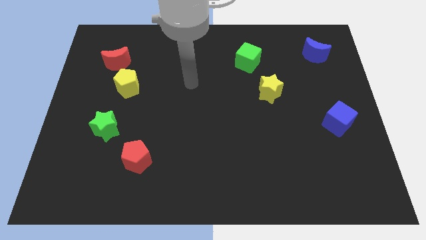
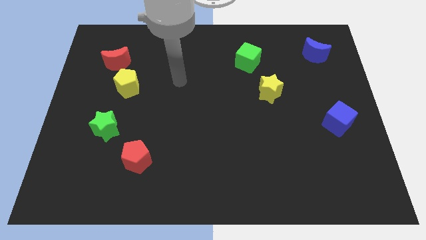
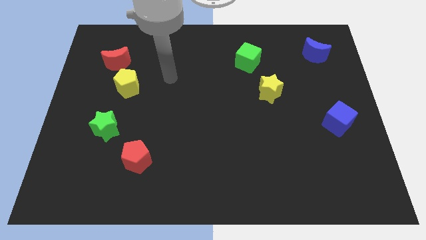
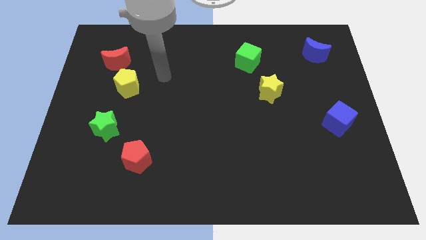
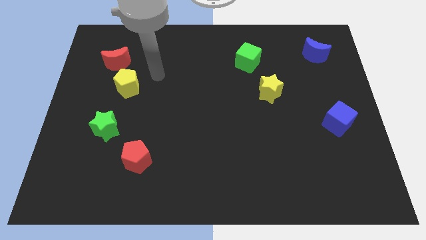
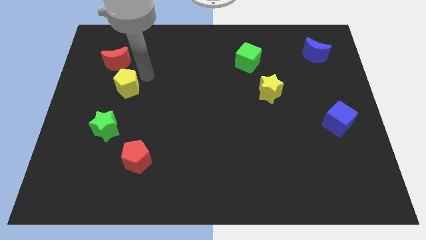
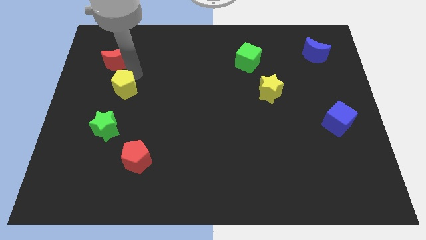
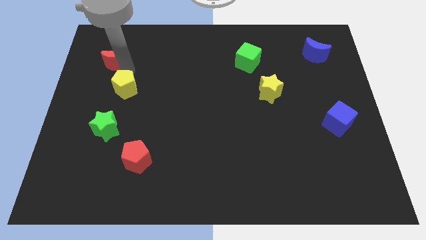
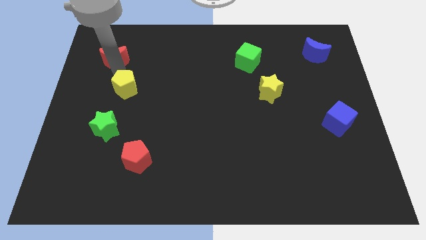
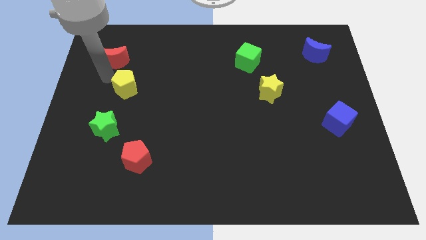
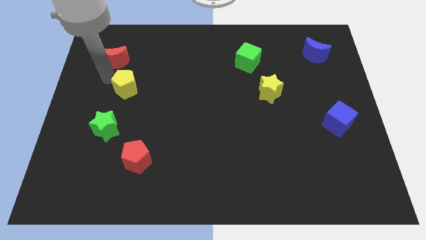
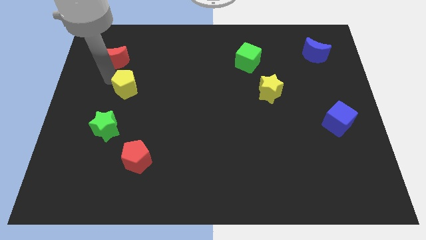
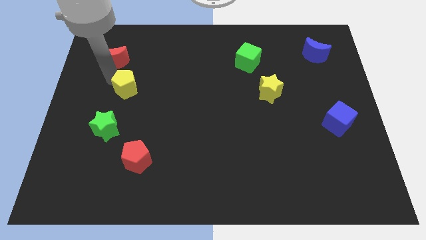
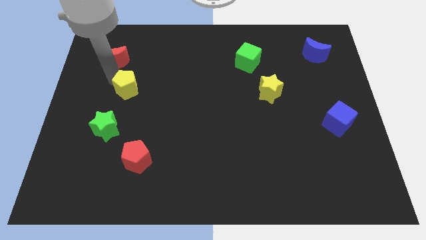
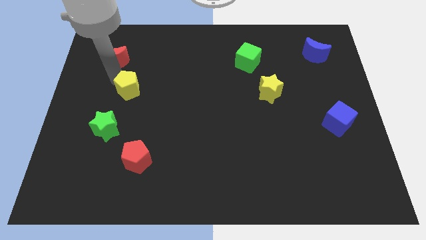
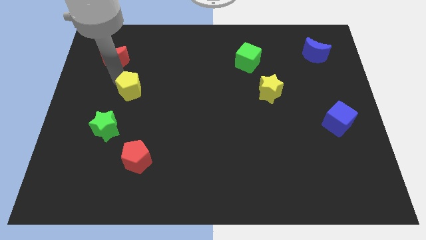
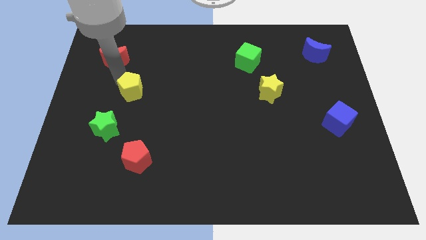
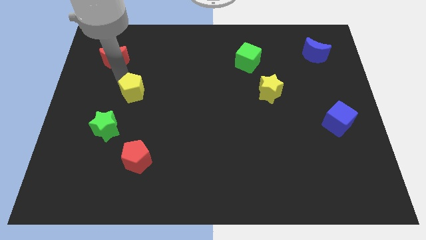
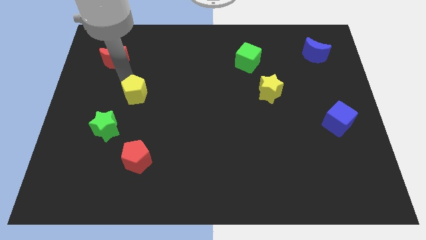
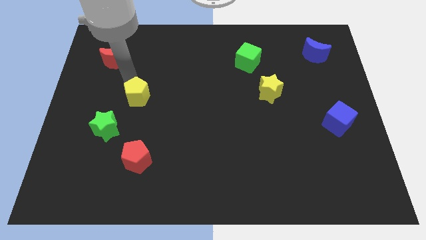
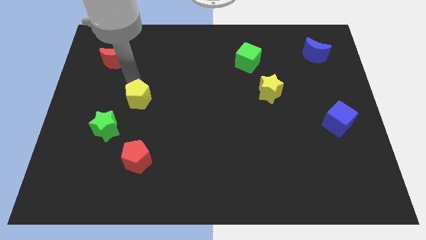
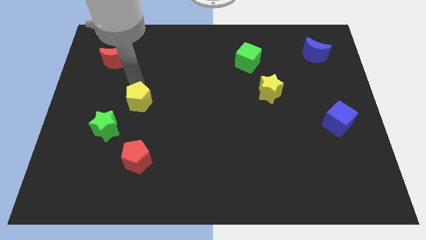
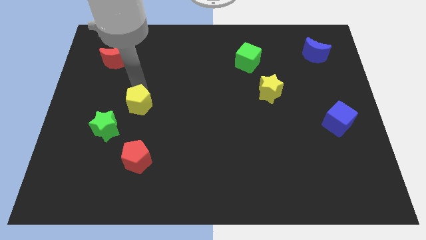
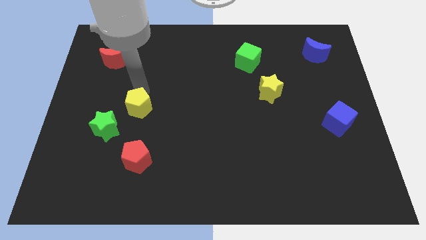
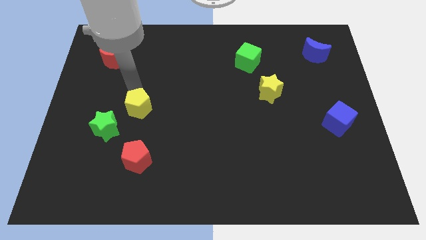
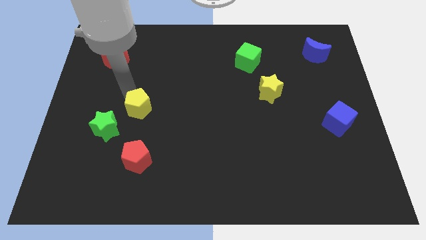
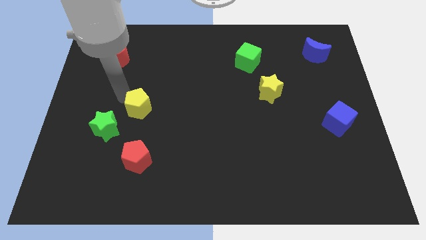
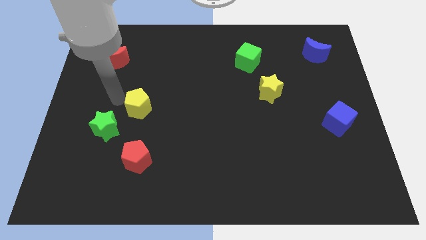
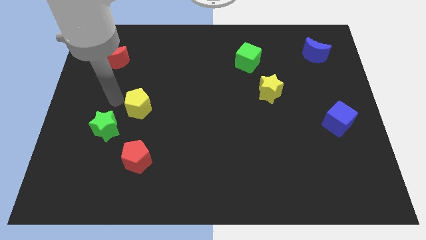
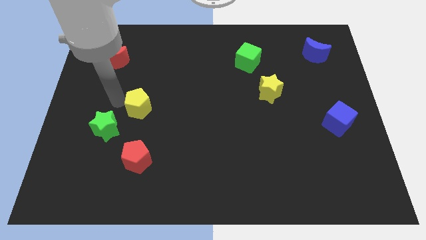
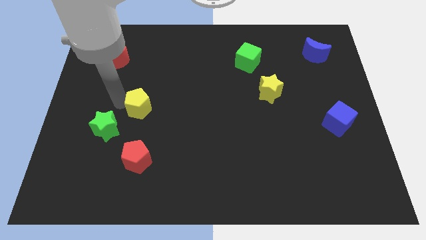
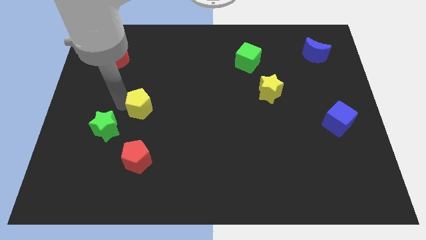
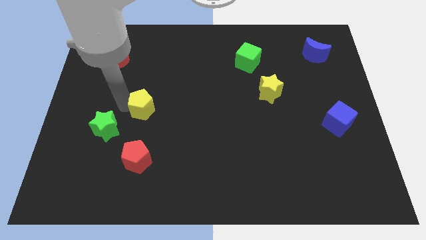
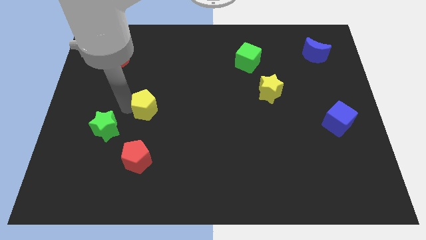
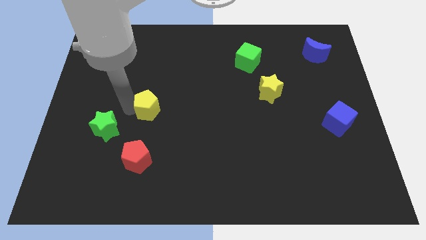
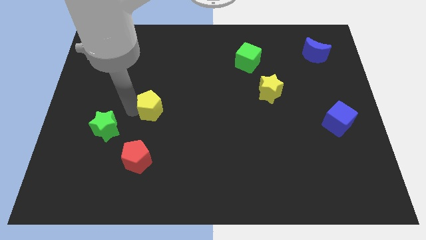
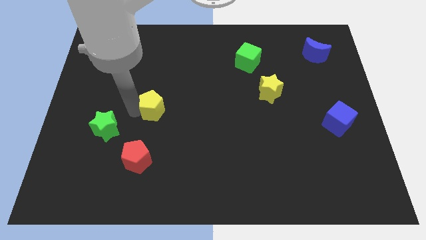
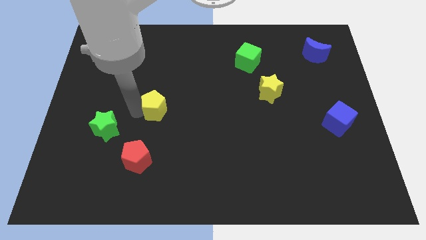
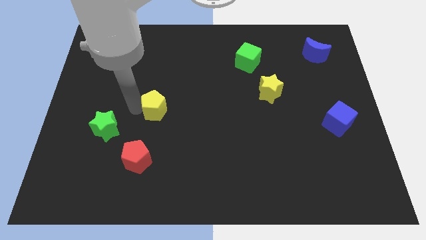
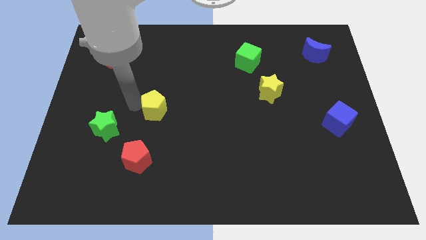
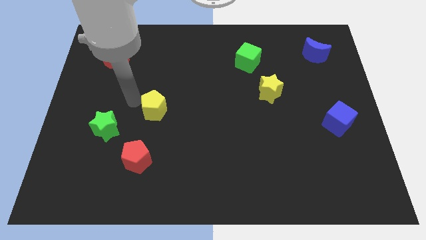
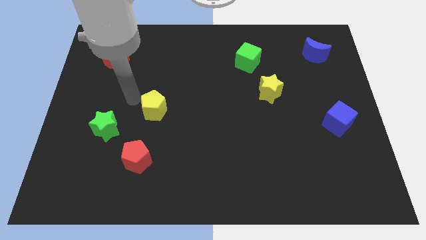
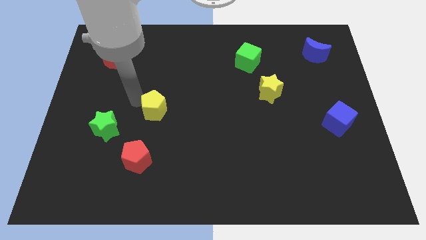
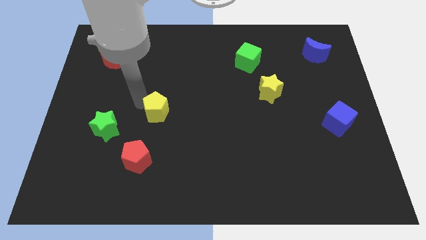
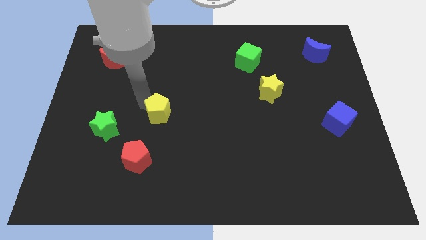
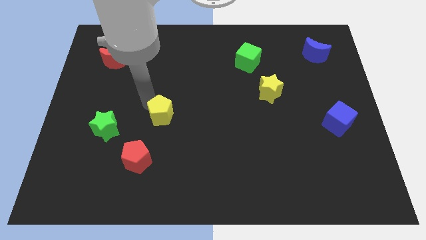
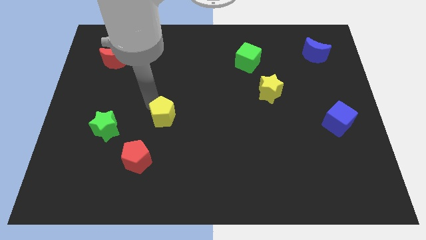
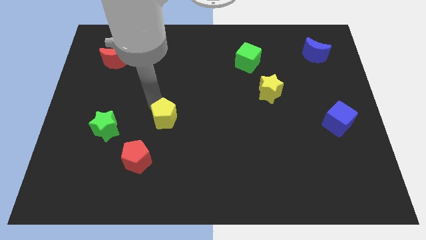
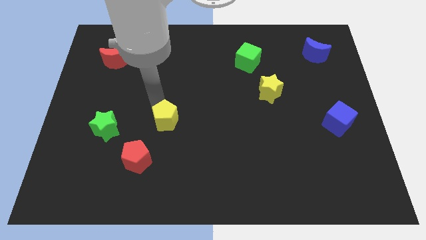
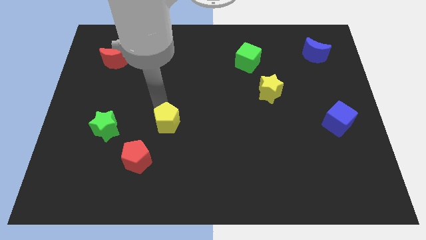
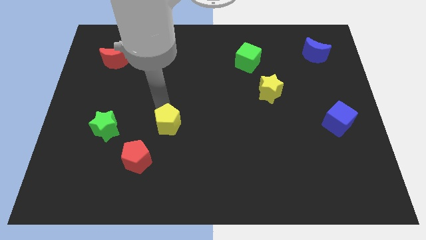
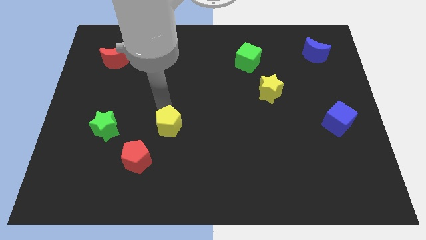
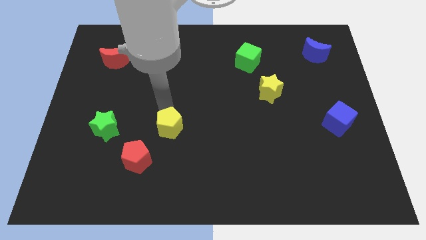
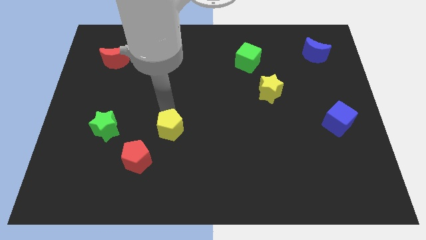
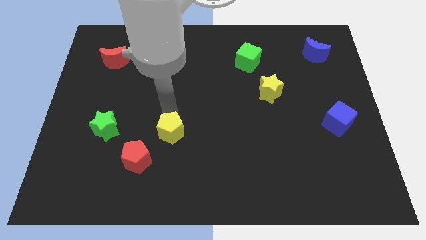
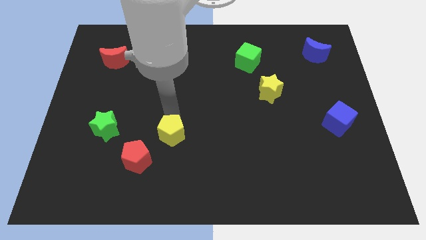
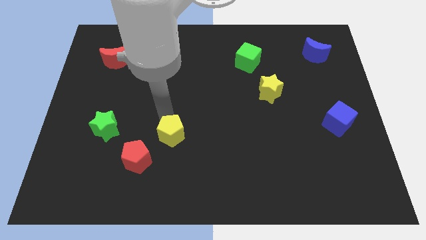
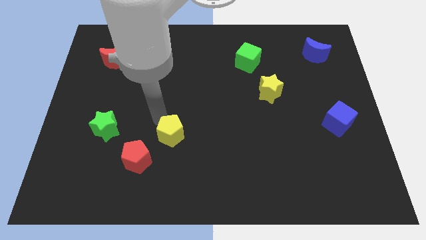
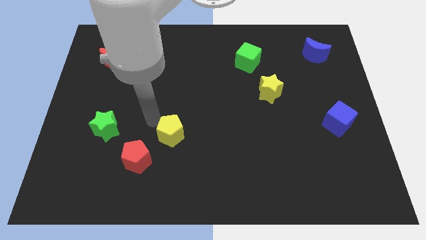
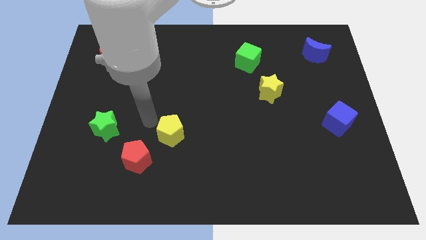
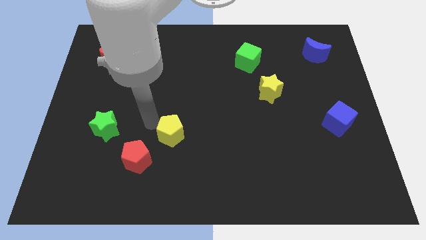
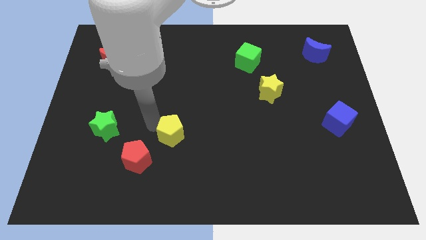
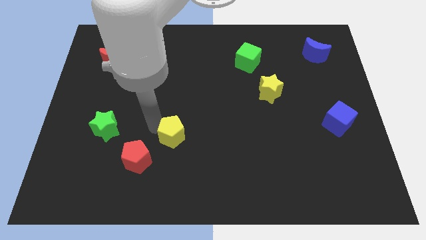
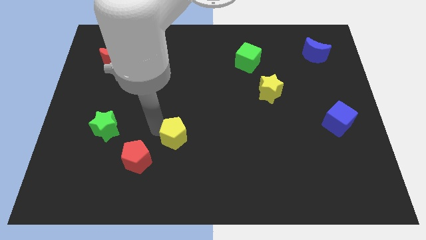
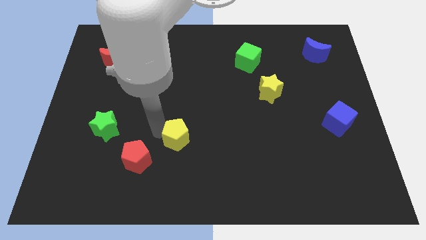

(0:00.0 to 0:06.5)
move the yellow pentagon down and right diagonally

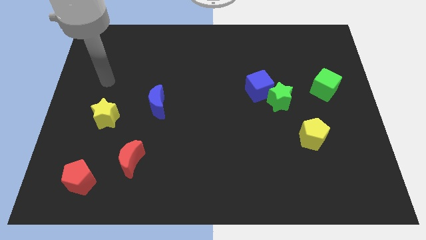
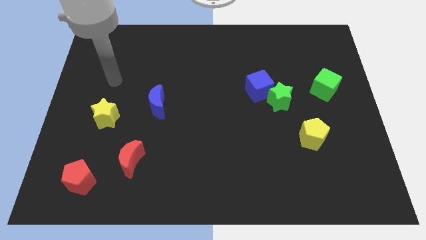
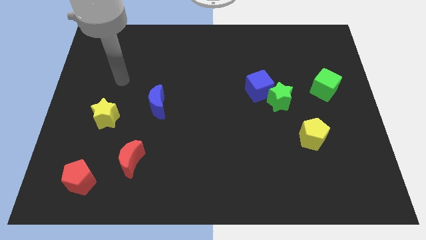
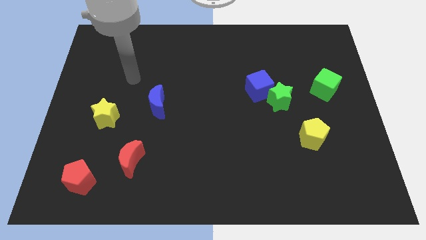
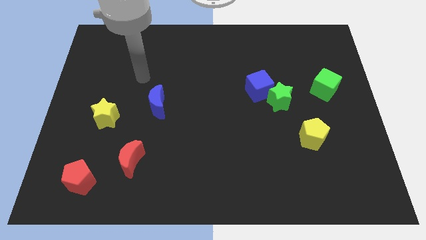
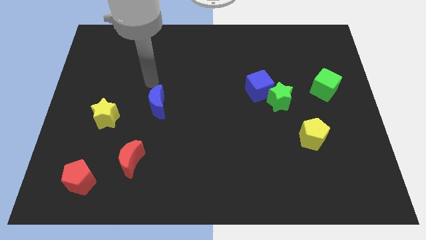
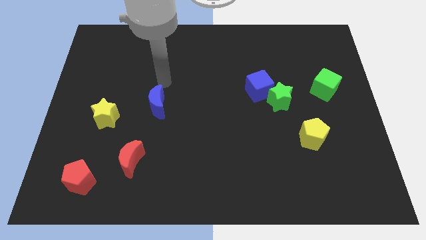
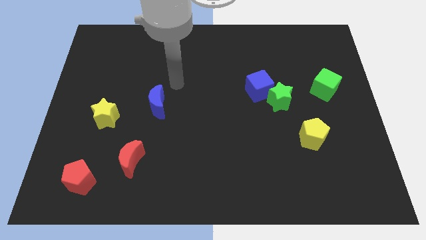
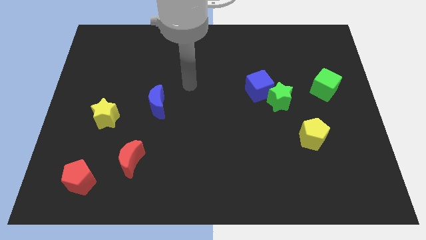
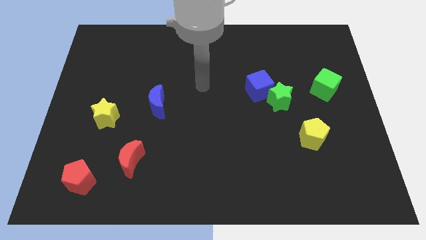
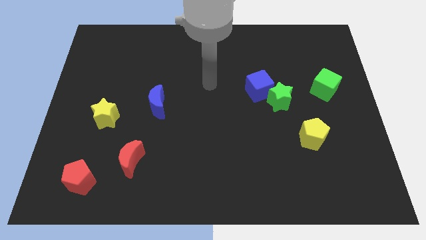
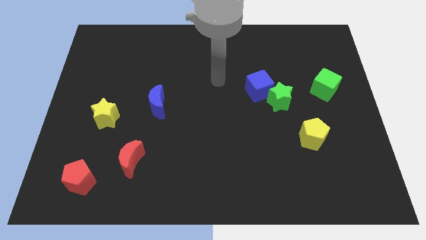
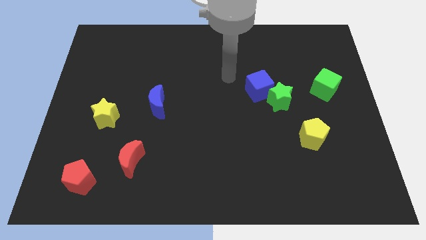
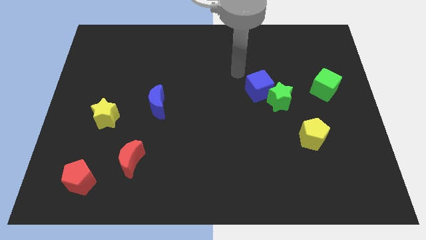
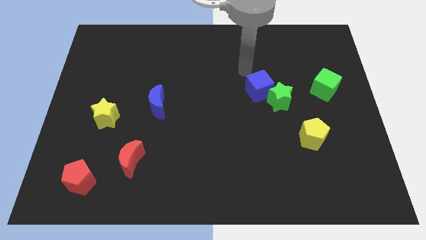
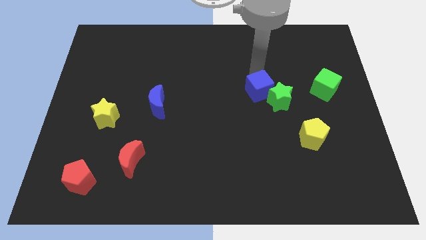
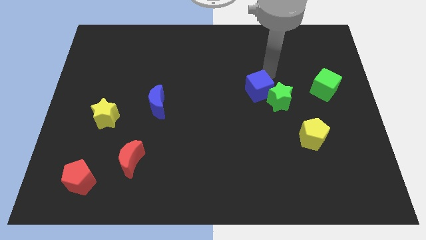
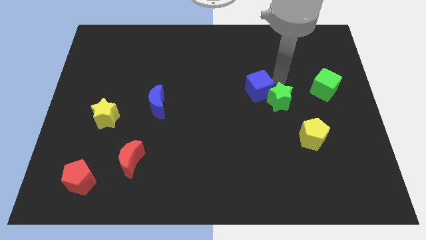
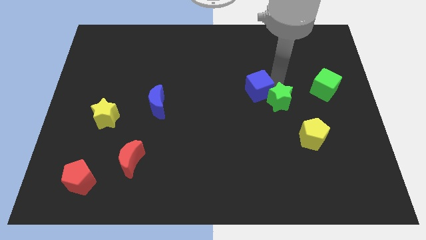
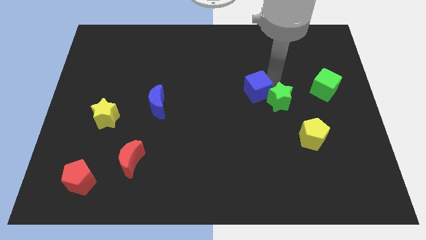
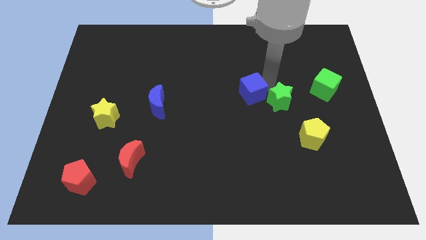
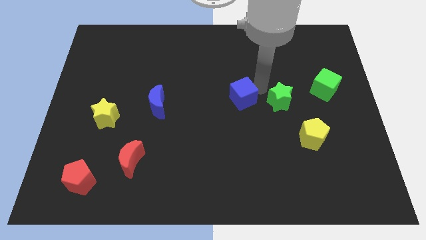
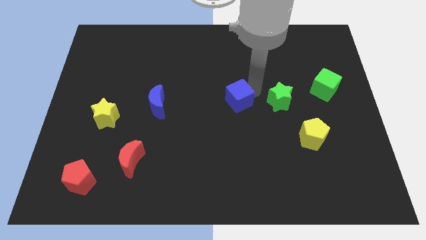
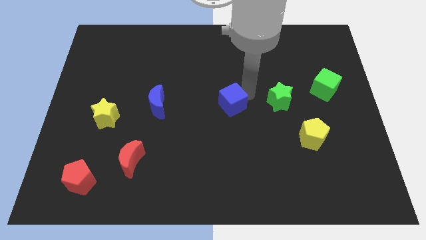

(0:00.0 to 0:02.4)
slightly push the blue cube down and left diagonally
